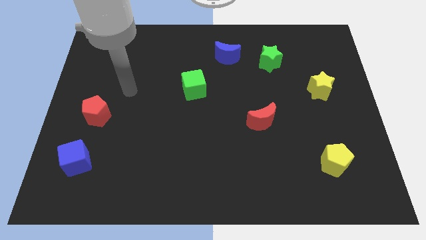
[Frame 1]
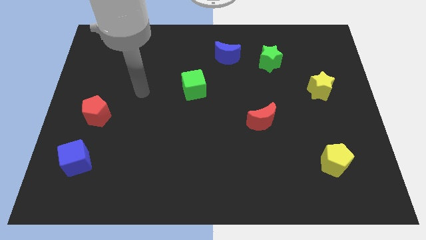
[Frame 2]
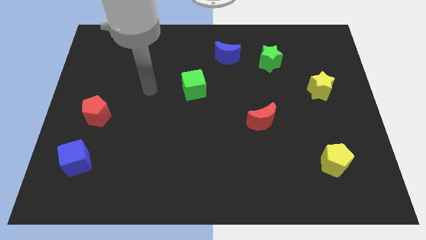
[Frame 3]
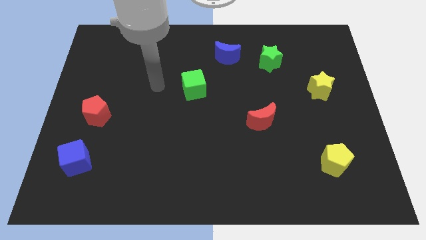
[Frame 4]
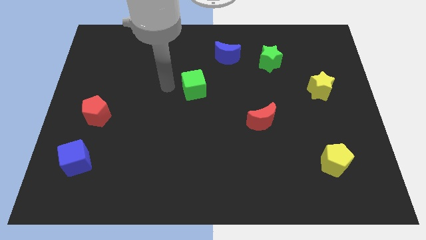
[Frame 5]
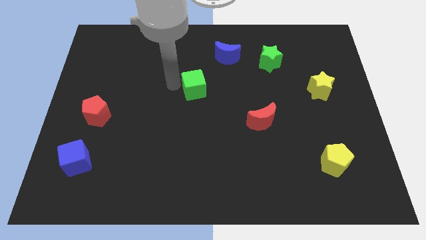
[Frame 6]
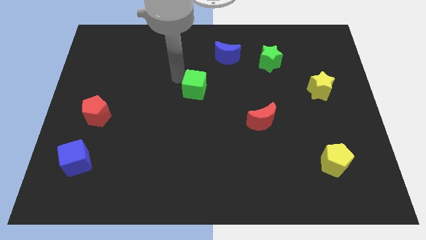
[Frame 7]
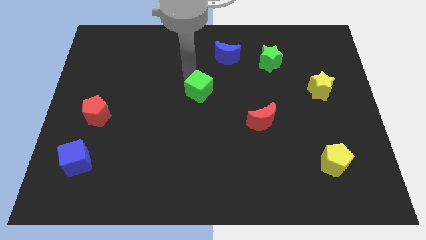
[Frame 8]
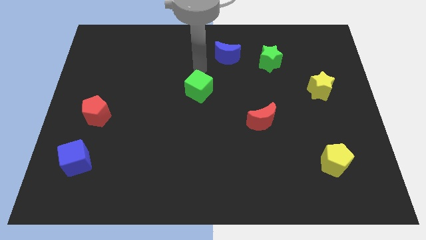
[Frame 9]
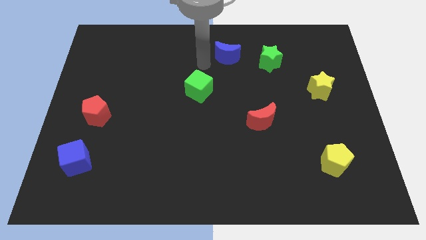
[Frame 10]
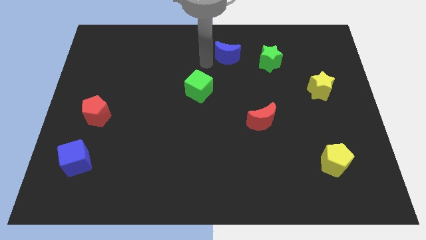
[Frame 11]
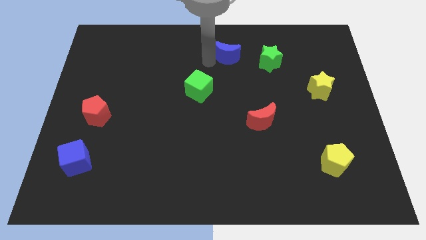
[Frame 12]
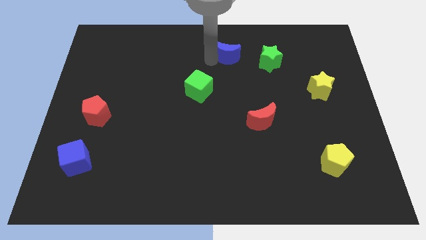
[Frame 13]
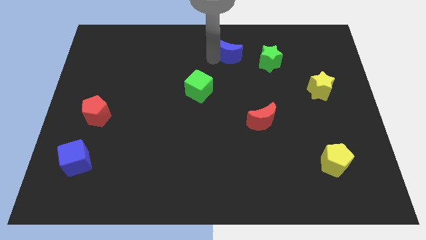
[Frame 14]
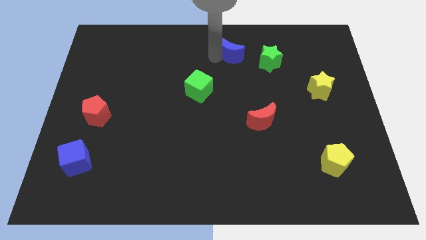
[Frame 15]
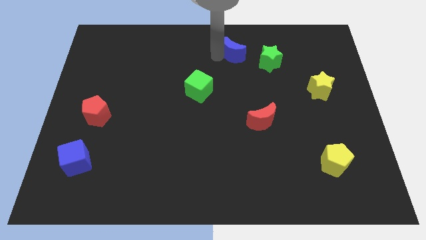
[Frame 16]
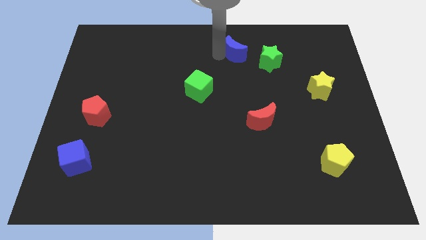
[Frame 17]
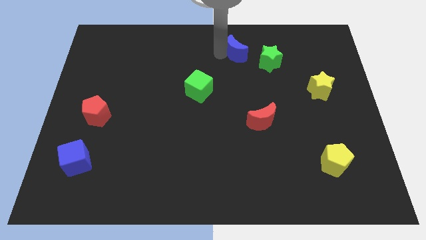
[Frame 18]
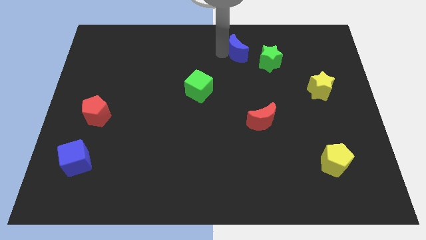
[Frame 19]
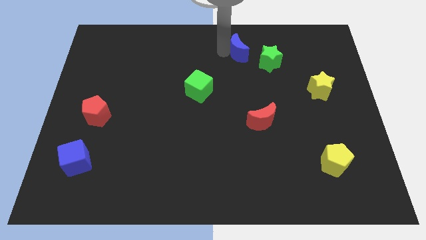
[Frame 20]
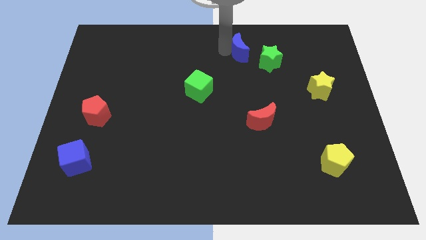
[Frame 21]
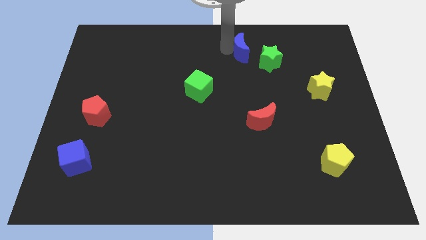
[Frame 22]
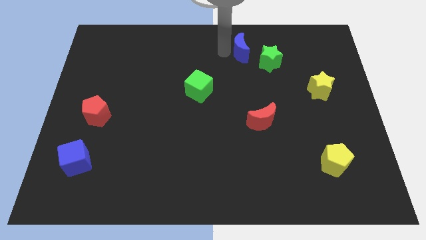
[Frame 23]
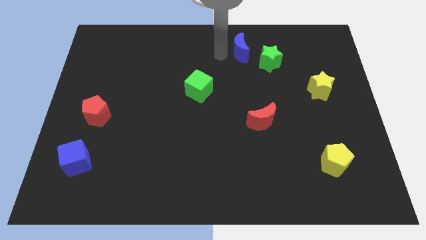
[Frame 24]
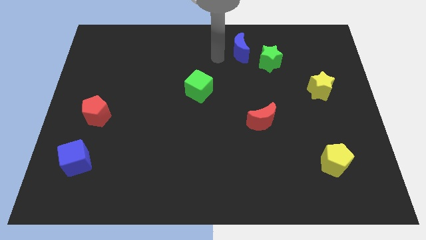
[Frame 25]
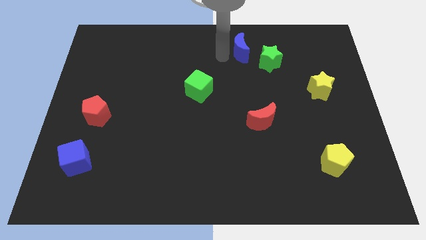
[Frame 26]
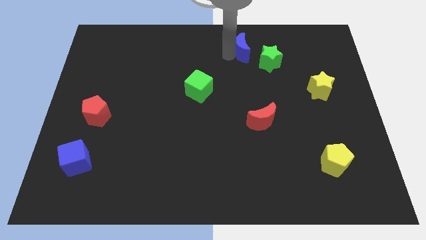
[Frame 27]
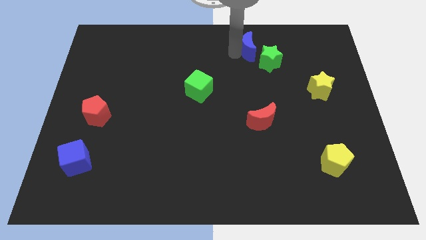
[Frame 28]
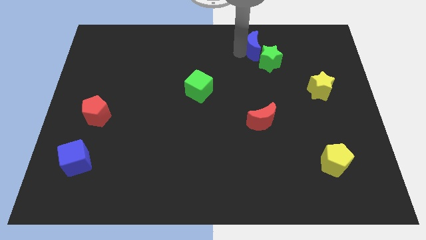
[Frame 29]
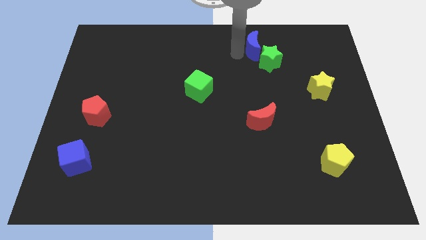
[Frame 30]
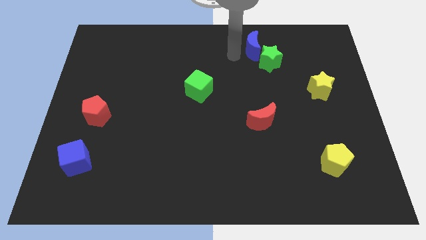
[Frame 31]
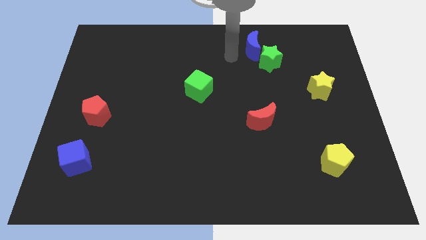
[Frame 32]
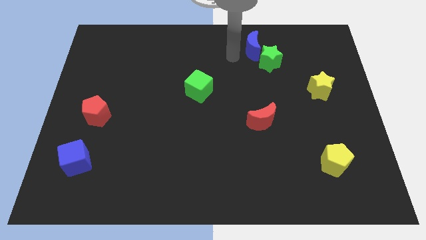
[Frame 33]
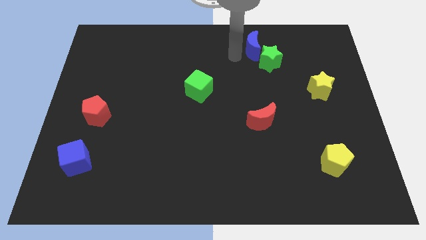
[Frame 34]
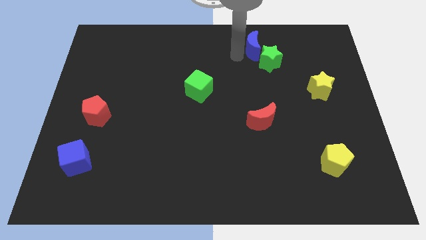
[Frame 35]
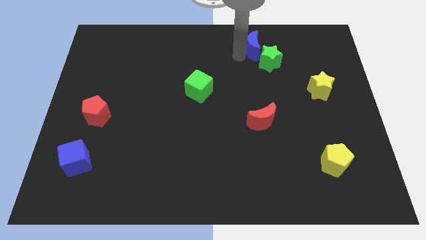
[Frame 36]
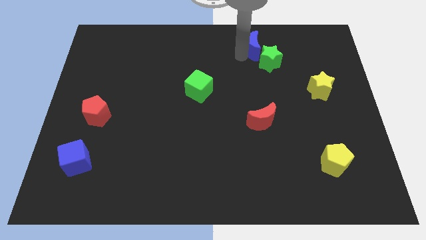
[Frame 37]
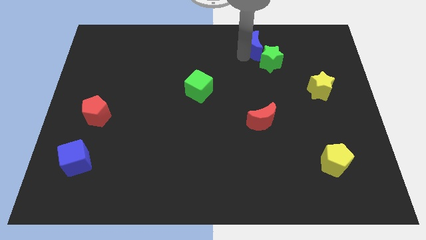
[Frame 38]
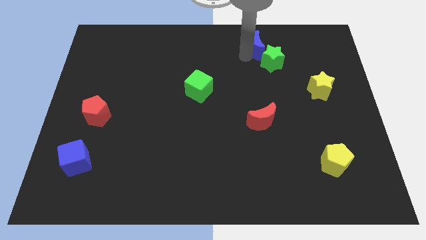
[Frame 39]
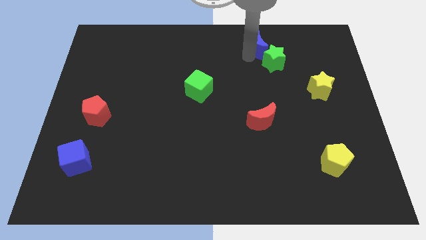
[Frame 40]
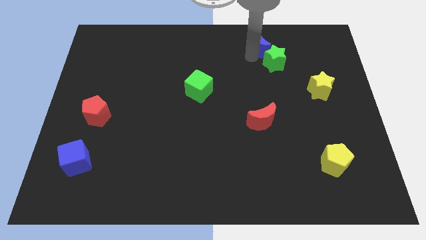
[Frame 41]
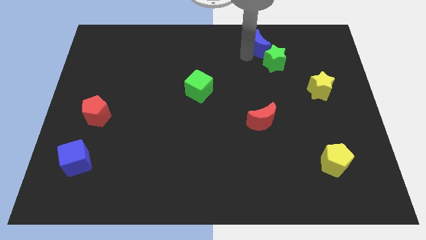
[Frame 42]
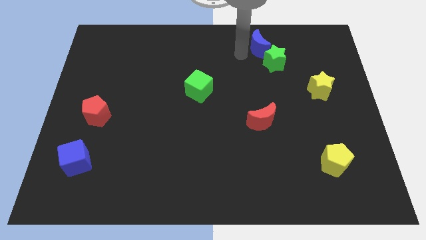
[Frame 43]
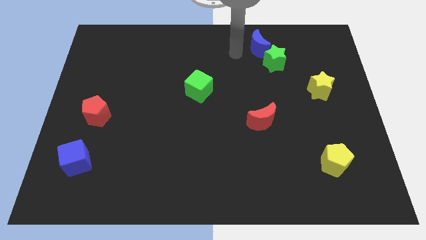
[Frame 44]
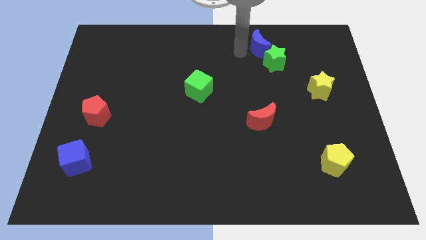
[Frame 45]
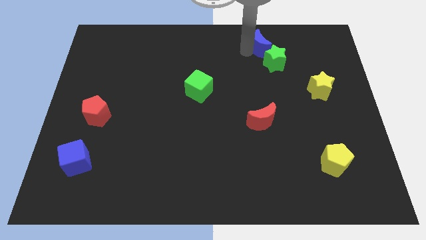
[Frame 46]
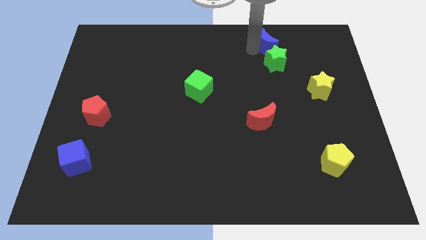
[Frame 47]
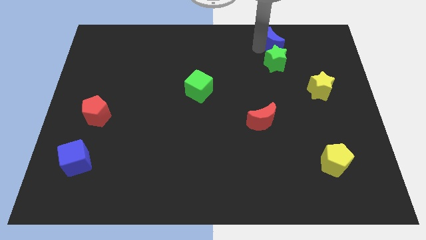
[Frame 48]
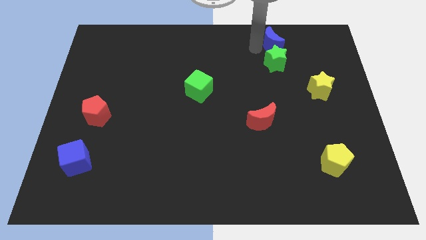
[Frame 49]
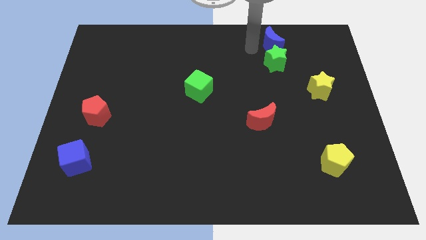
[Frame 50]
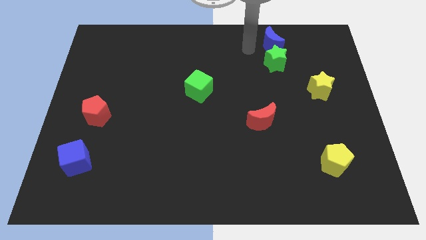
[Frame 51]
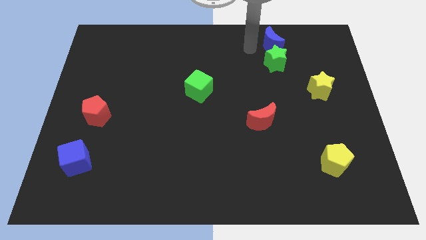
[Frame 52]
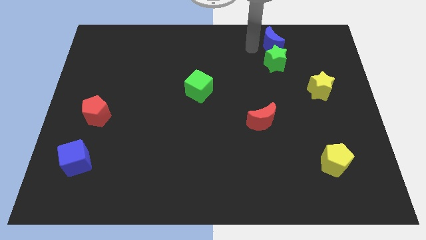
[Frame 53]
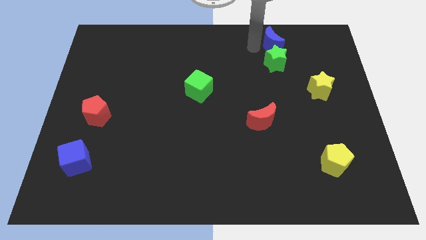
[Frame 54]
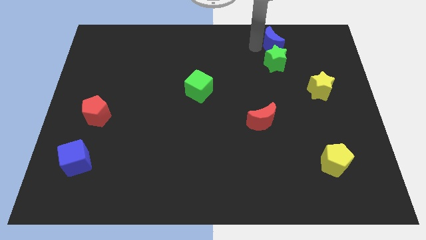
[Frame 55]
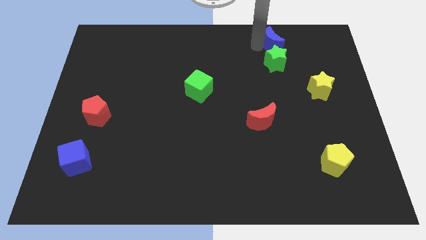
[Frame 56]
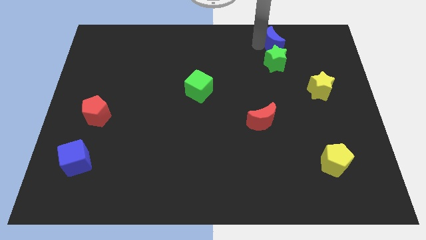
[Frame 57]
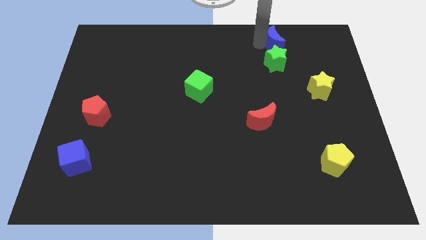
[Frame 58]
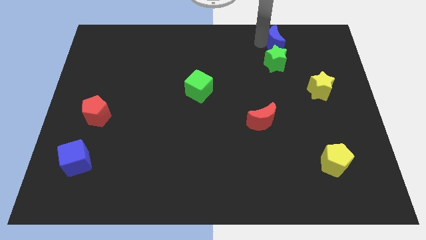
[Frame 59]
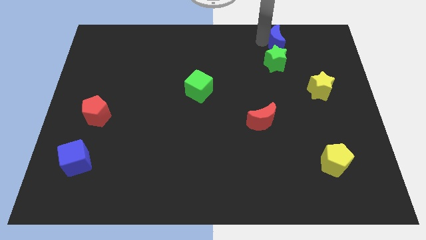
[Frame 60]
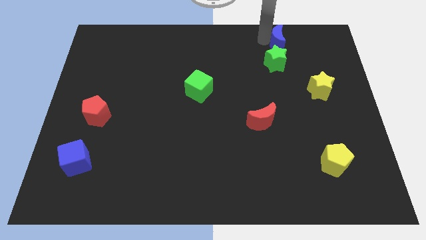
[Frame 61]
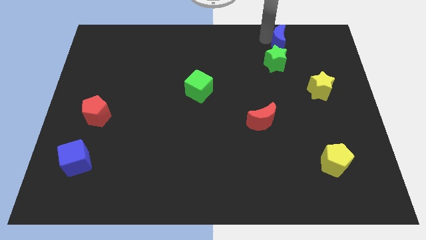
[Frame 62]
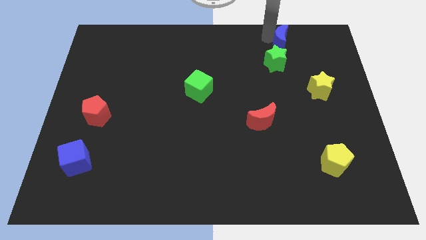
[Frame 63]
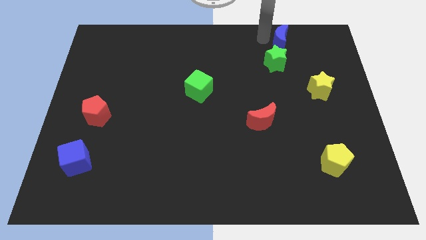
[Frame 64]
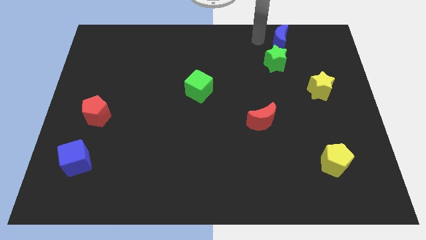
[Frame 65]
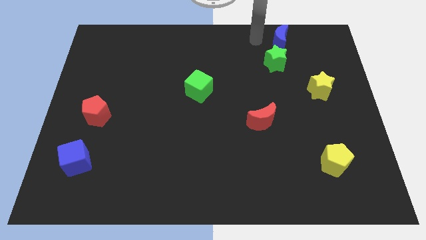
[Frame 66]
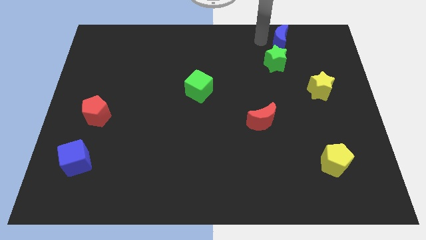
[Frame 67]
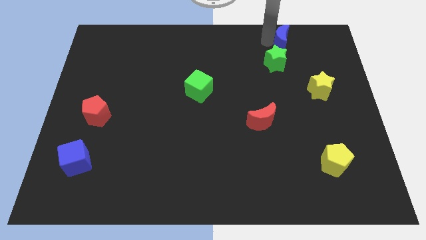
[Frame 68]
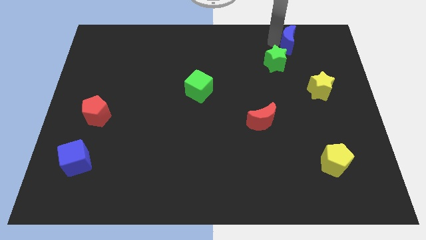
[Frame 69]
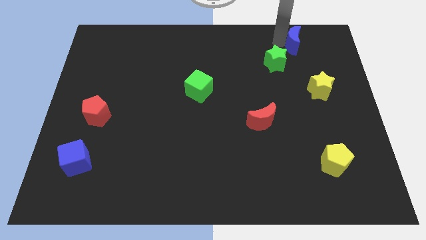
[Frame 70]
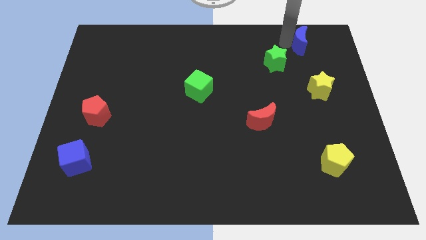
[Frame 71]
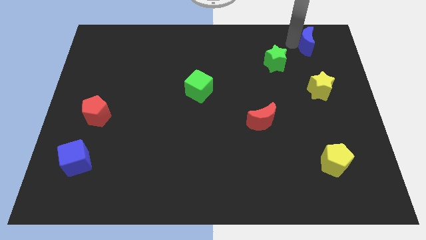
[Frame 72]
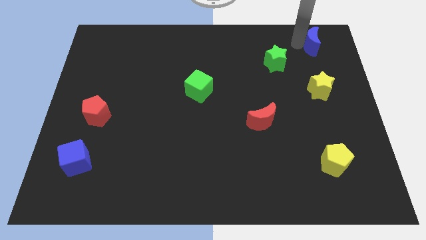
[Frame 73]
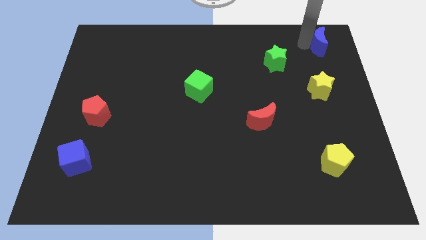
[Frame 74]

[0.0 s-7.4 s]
move the blue moon to the top right
